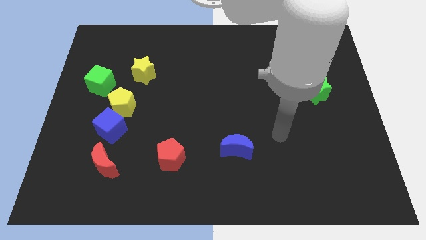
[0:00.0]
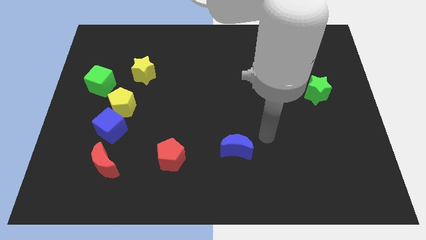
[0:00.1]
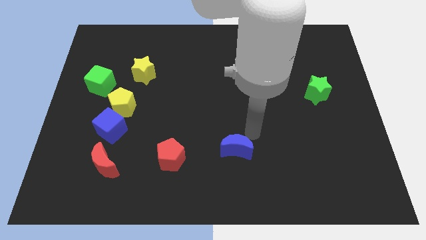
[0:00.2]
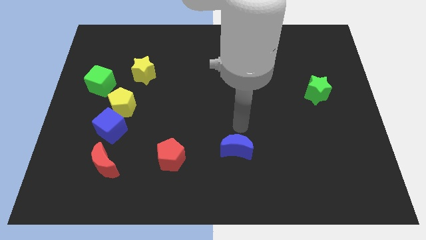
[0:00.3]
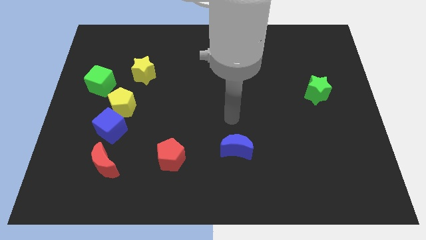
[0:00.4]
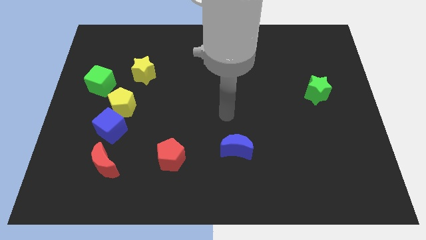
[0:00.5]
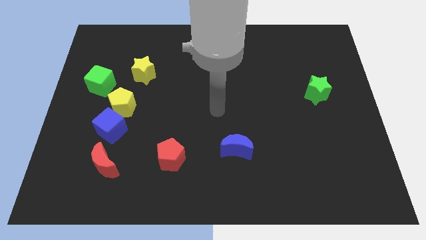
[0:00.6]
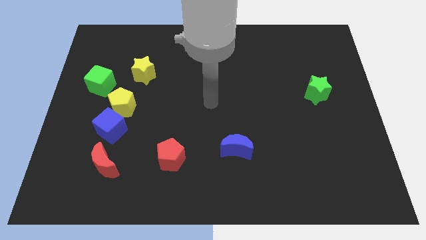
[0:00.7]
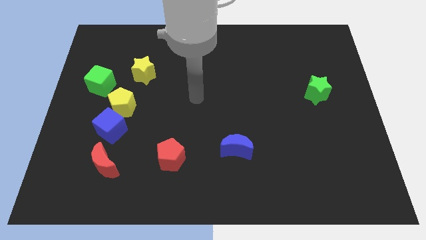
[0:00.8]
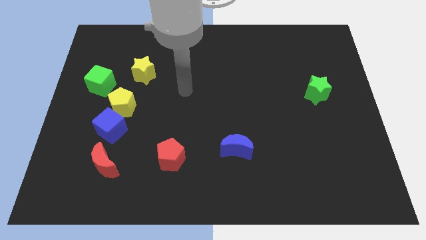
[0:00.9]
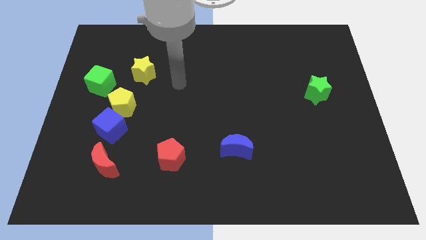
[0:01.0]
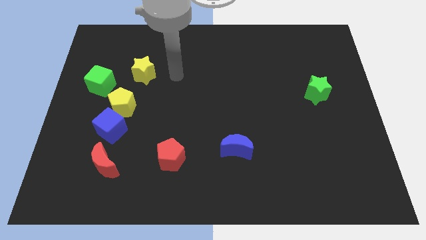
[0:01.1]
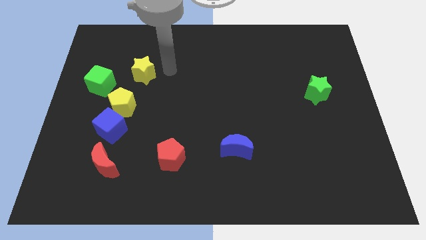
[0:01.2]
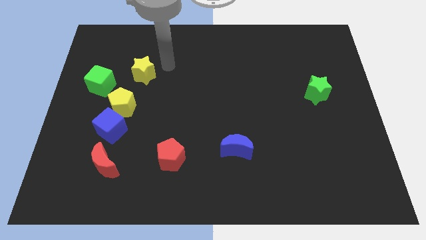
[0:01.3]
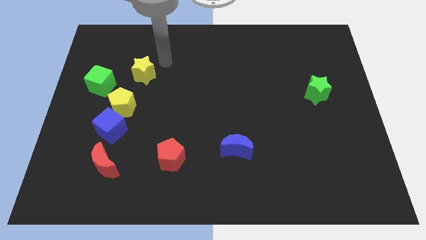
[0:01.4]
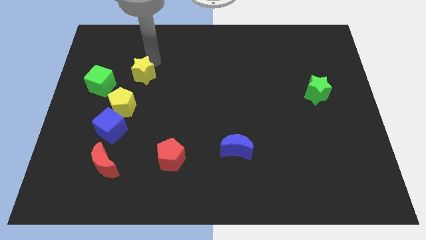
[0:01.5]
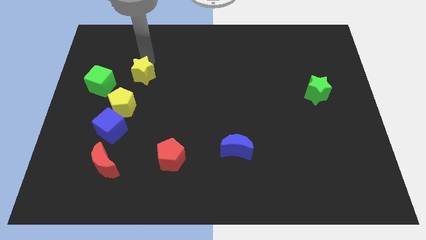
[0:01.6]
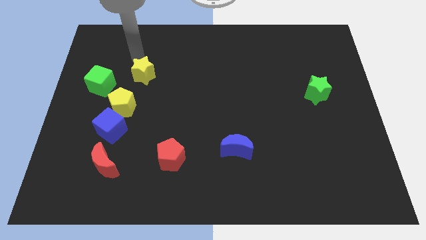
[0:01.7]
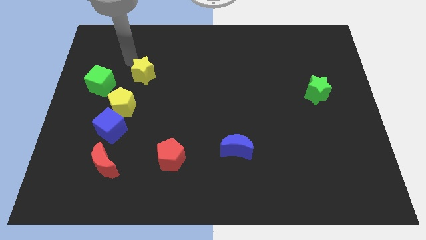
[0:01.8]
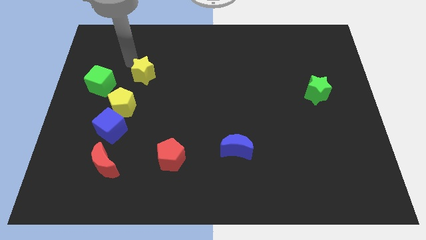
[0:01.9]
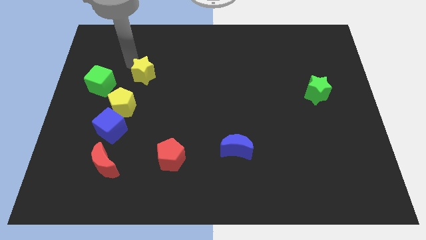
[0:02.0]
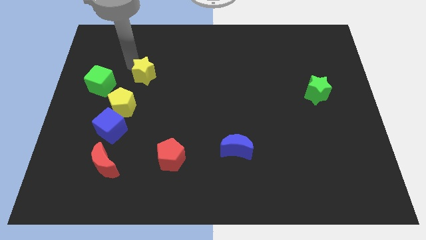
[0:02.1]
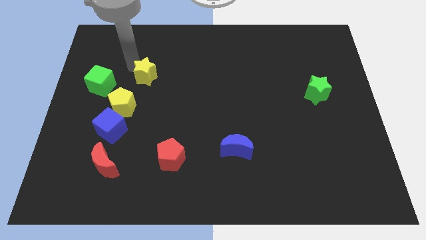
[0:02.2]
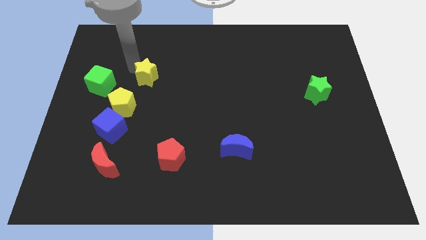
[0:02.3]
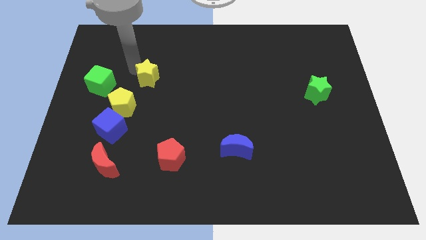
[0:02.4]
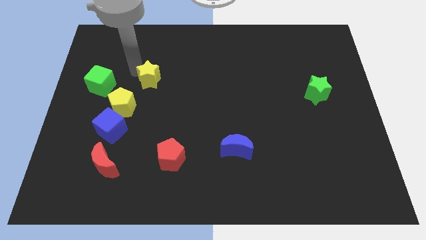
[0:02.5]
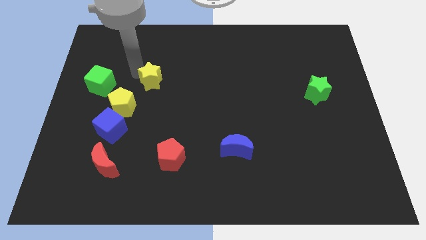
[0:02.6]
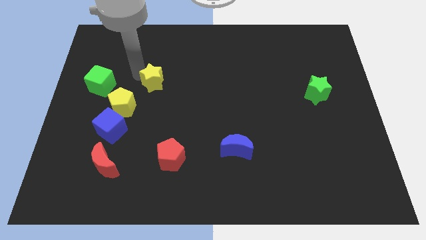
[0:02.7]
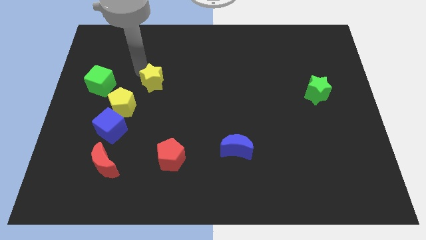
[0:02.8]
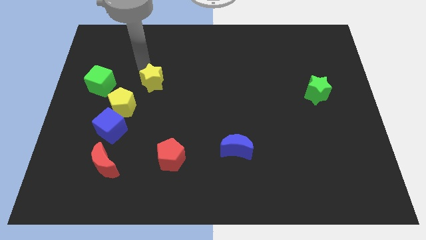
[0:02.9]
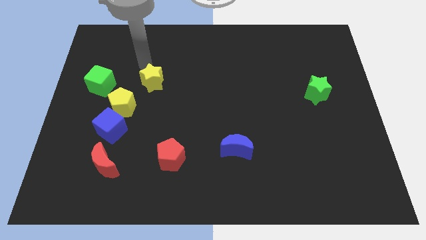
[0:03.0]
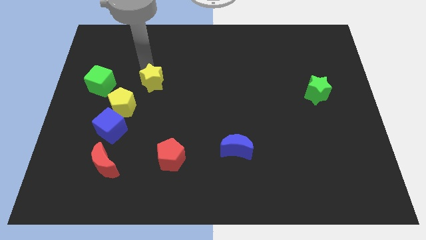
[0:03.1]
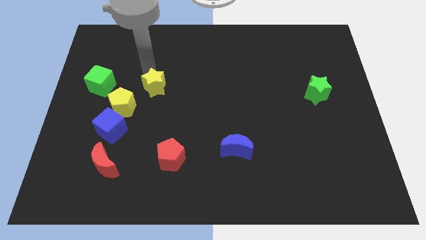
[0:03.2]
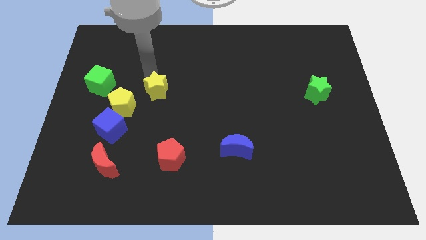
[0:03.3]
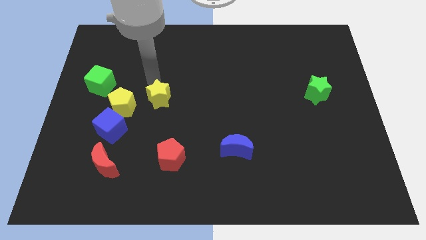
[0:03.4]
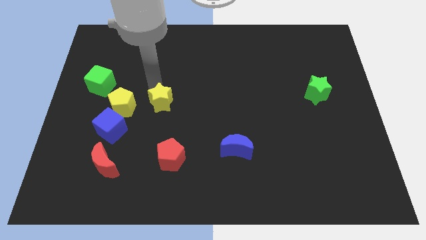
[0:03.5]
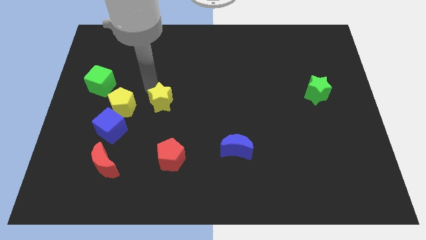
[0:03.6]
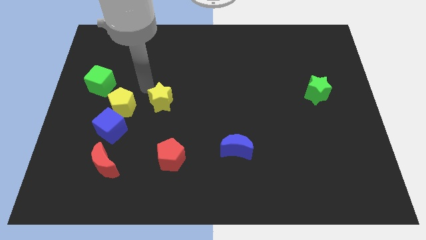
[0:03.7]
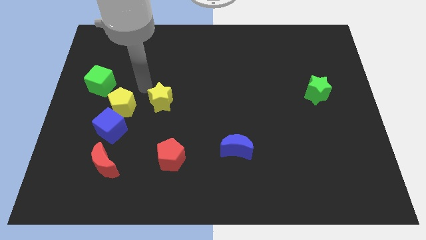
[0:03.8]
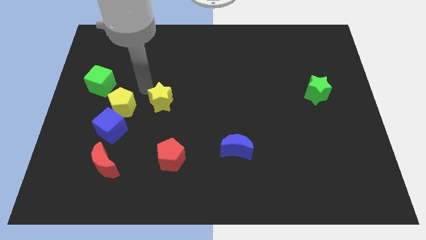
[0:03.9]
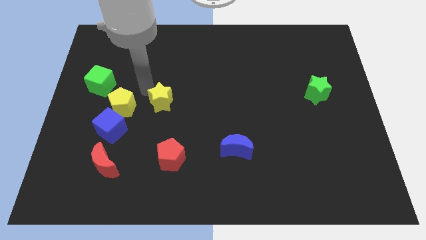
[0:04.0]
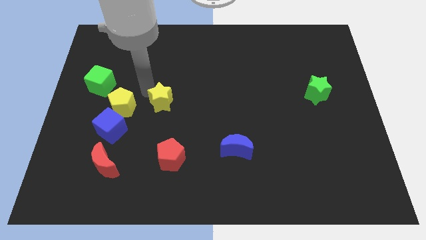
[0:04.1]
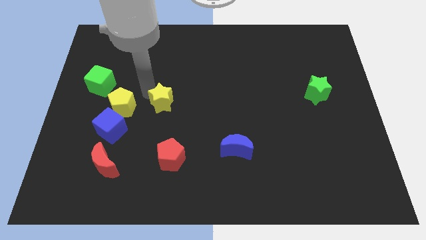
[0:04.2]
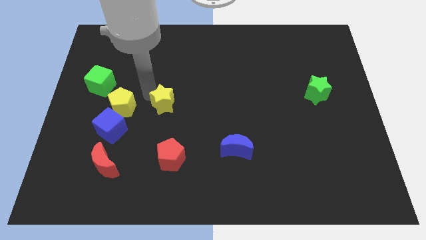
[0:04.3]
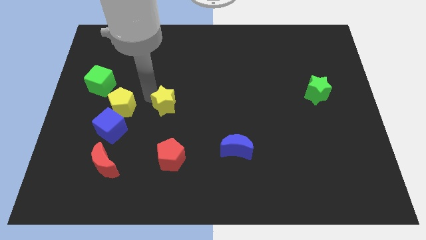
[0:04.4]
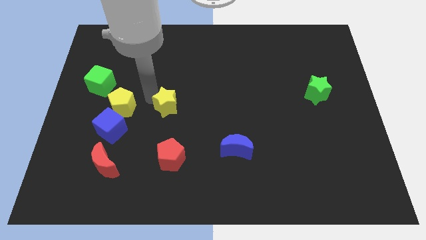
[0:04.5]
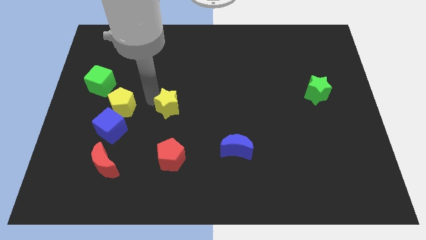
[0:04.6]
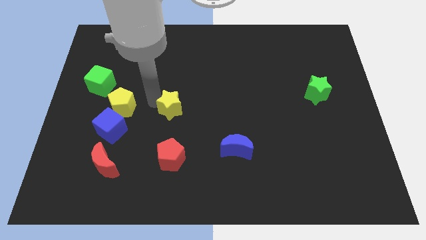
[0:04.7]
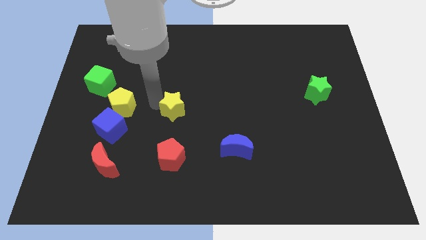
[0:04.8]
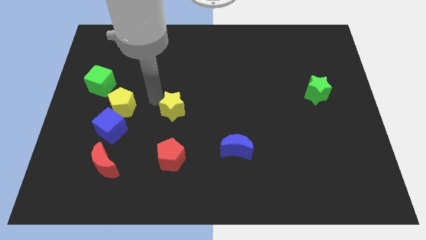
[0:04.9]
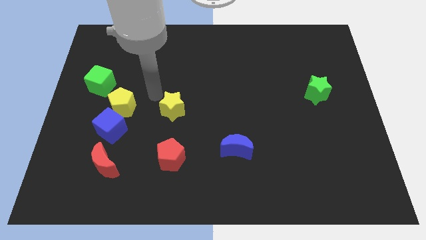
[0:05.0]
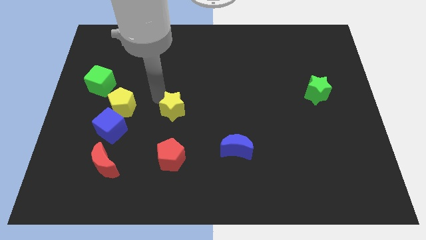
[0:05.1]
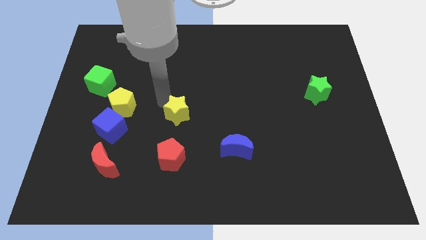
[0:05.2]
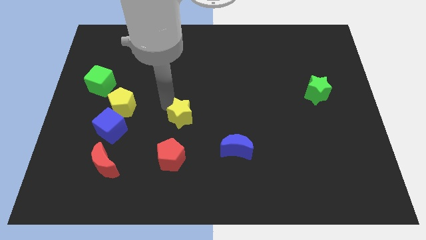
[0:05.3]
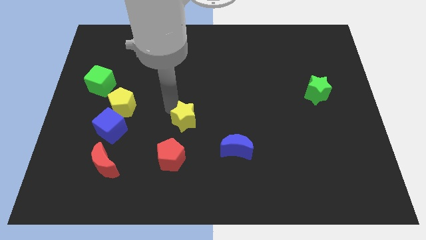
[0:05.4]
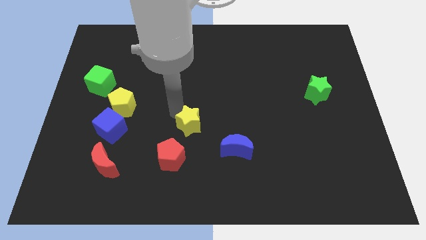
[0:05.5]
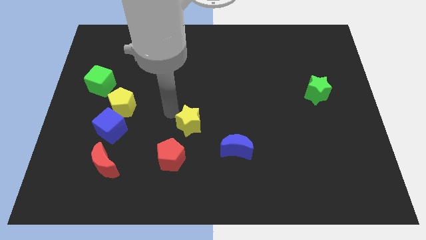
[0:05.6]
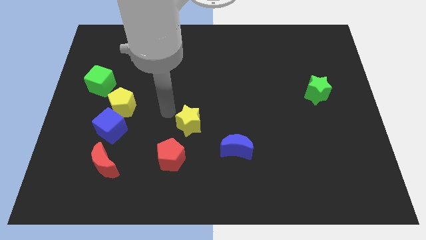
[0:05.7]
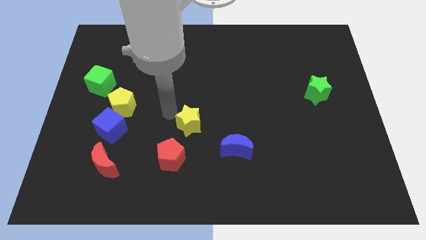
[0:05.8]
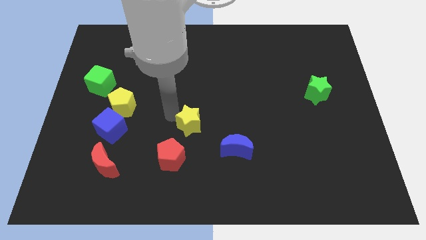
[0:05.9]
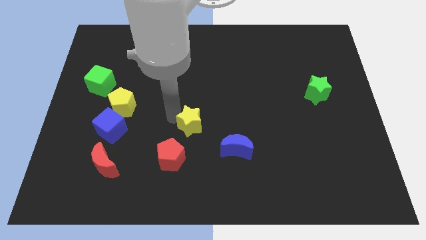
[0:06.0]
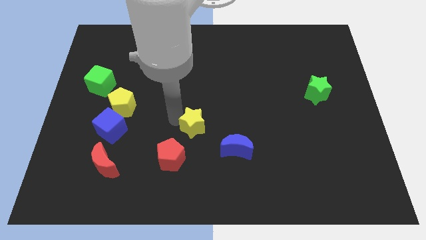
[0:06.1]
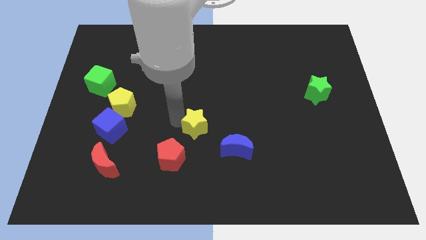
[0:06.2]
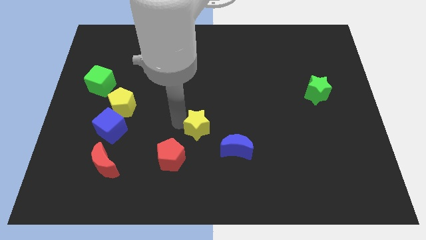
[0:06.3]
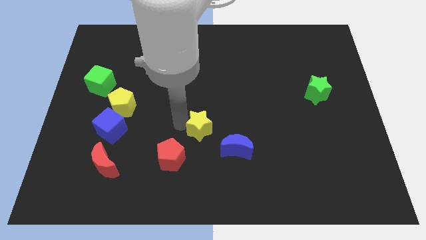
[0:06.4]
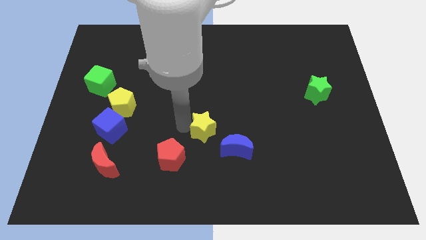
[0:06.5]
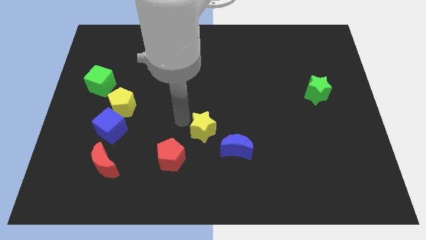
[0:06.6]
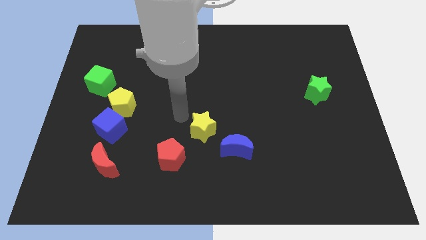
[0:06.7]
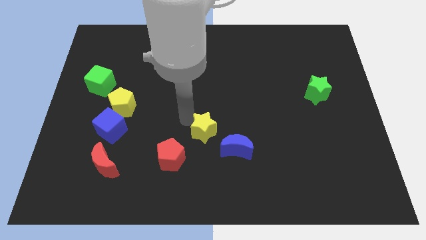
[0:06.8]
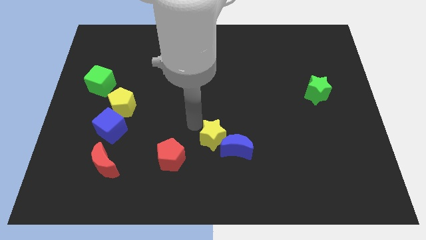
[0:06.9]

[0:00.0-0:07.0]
move the yellow star to the blue moon
